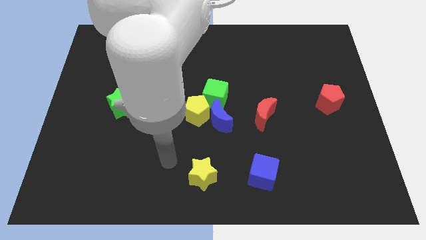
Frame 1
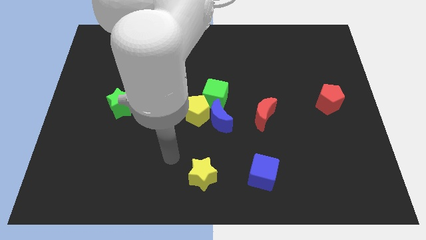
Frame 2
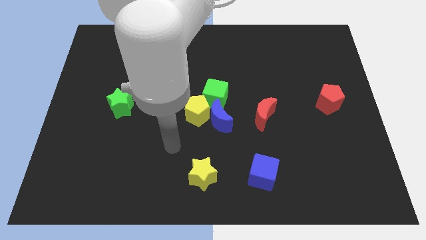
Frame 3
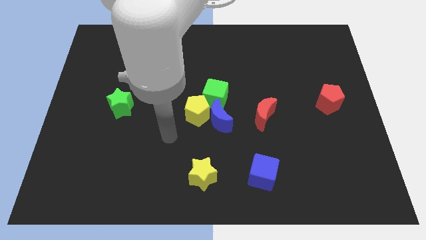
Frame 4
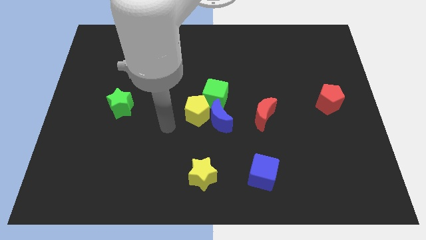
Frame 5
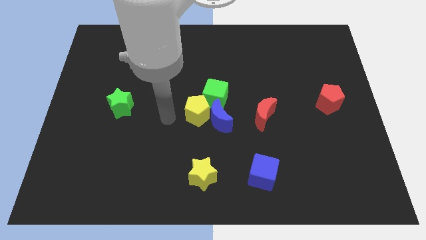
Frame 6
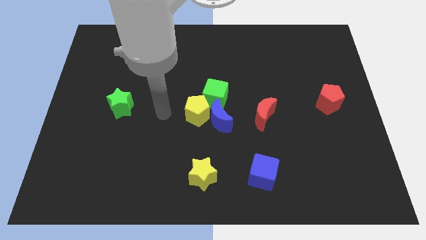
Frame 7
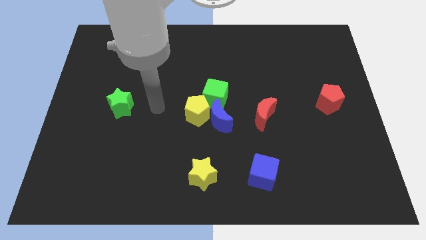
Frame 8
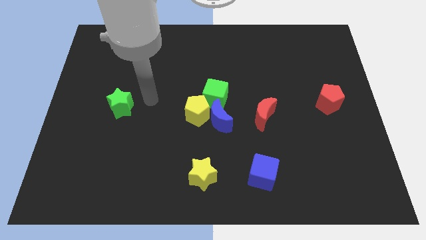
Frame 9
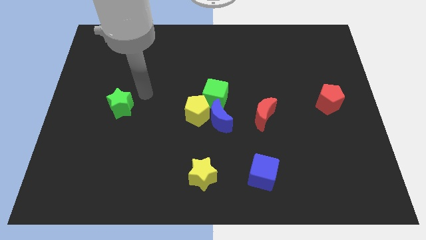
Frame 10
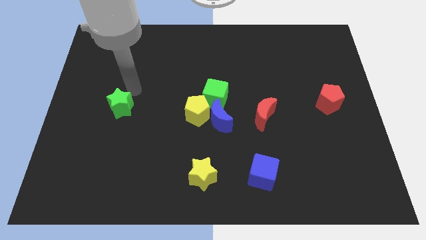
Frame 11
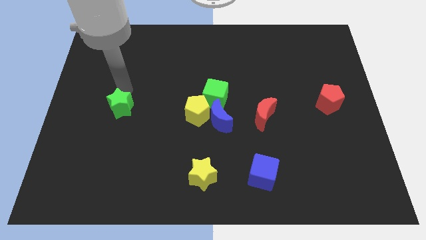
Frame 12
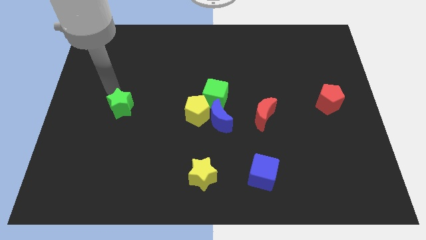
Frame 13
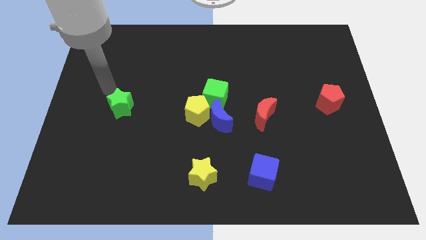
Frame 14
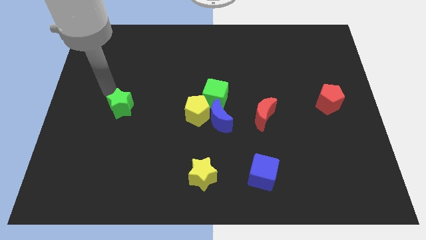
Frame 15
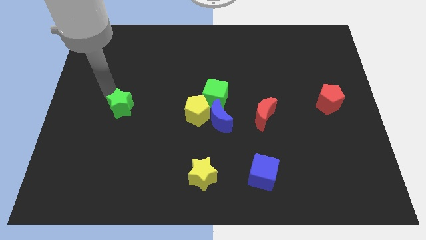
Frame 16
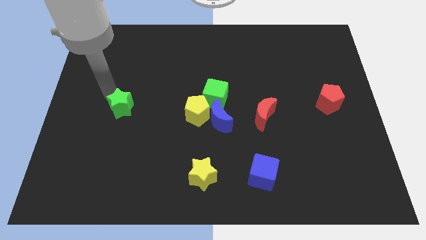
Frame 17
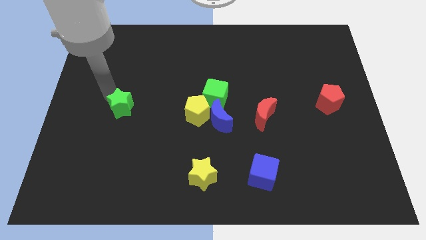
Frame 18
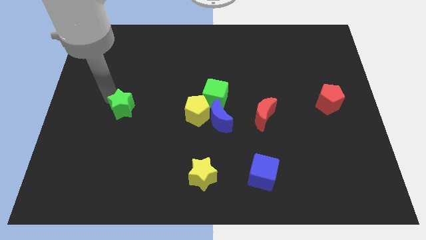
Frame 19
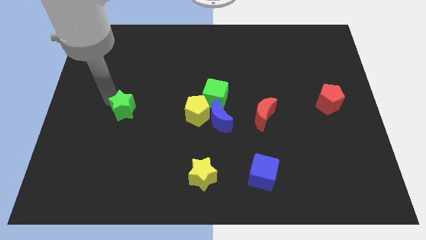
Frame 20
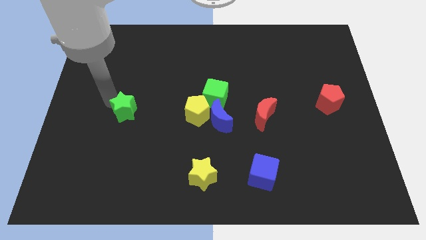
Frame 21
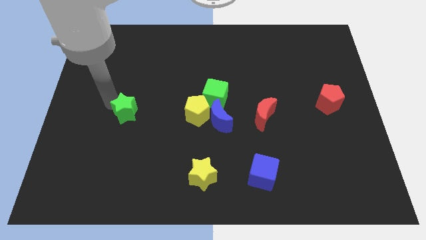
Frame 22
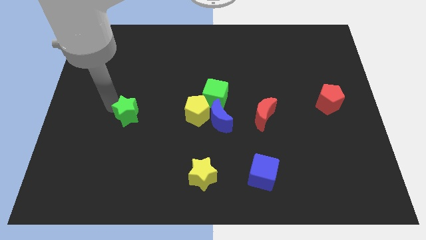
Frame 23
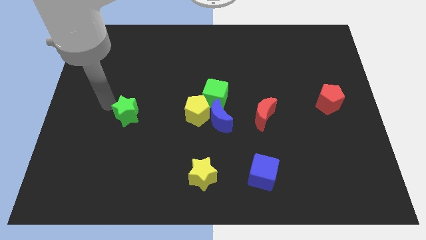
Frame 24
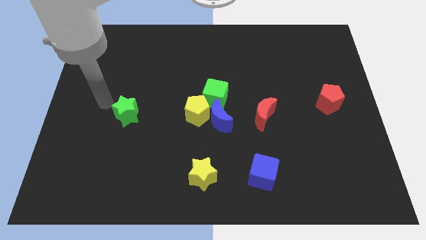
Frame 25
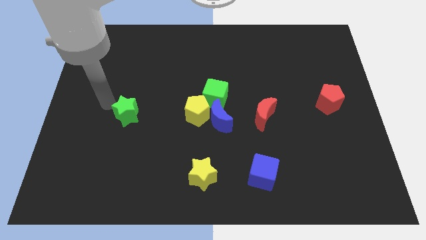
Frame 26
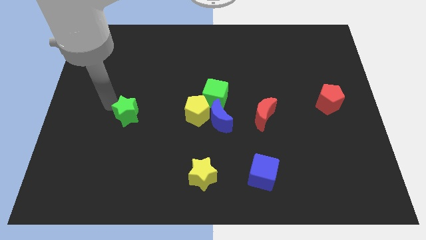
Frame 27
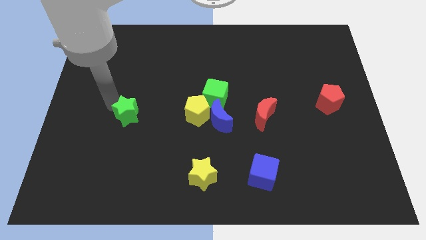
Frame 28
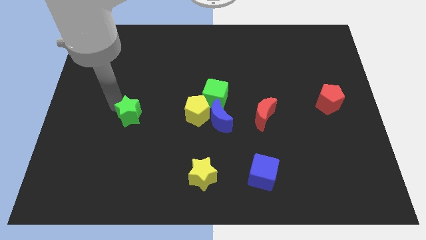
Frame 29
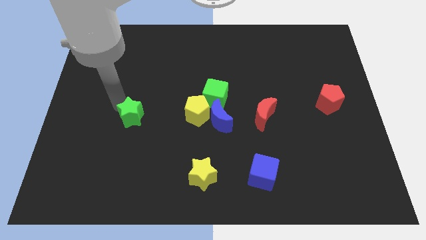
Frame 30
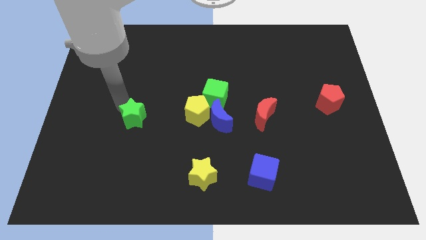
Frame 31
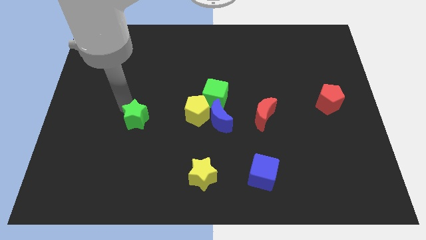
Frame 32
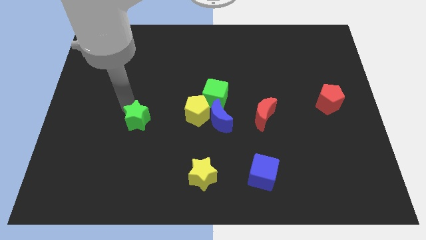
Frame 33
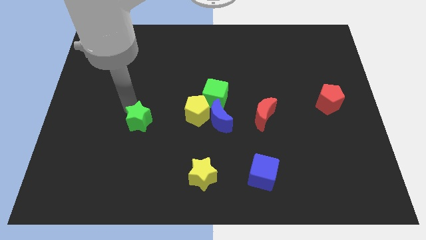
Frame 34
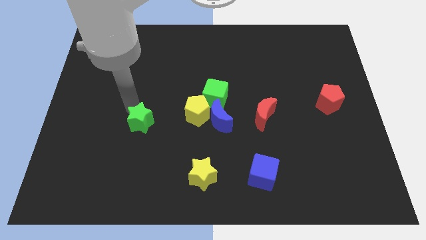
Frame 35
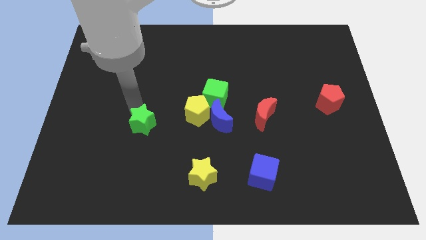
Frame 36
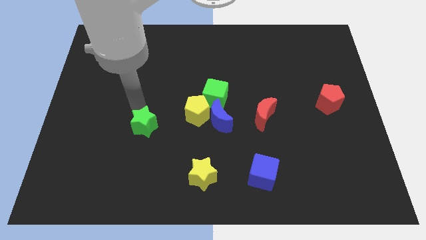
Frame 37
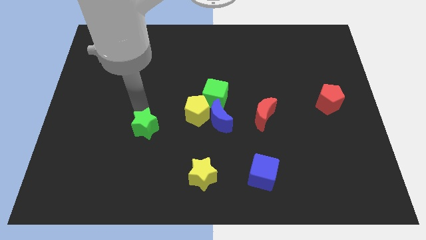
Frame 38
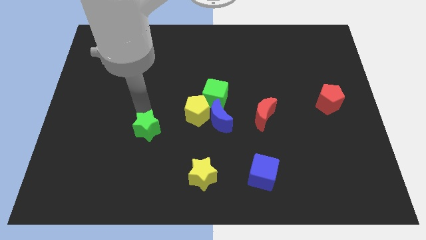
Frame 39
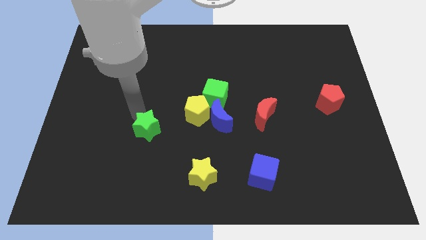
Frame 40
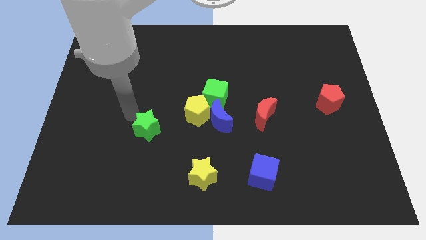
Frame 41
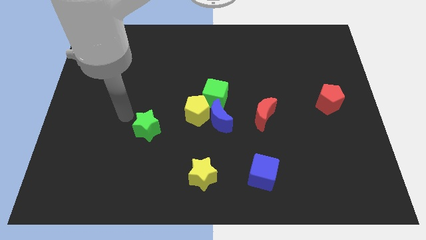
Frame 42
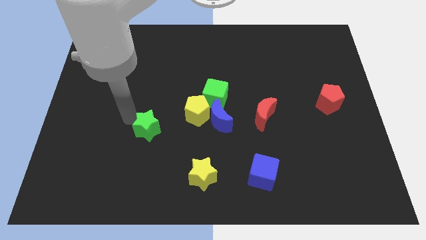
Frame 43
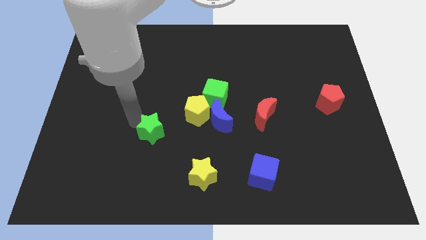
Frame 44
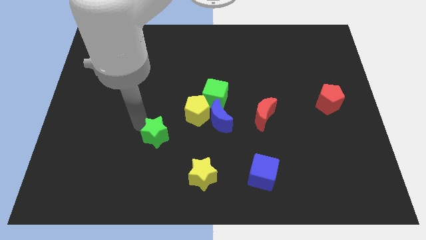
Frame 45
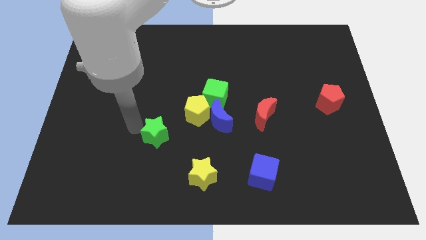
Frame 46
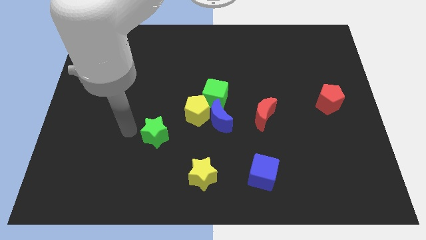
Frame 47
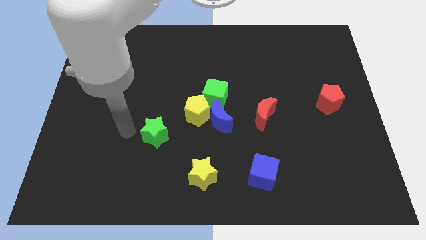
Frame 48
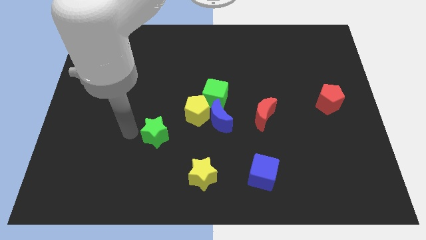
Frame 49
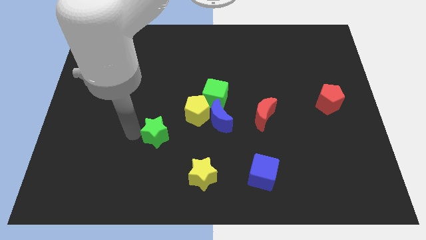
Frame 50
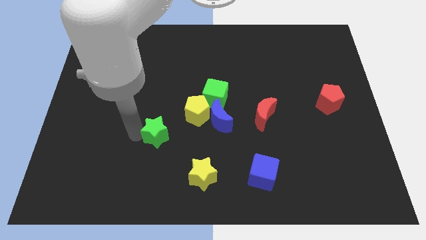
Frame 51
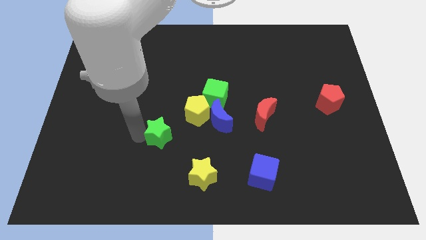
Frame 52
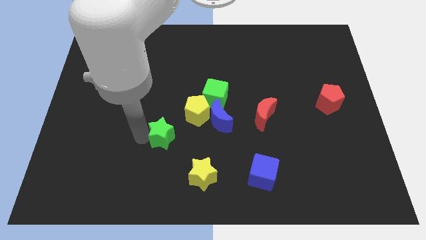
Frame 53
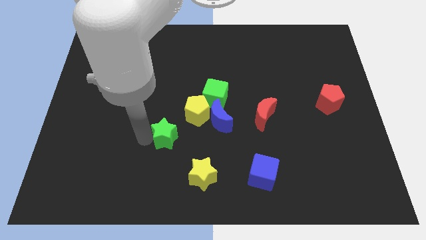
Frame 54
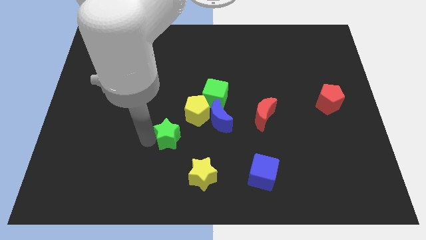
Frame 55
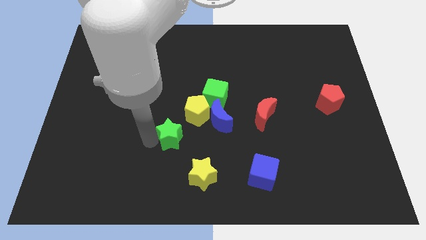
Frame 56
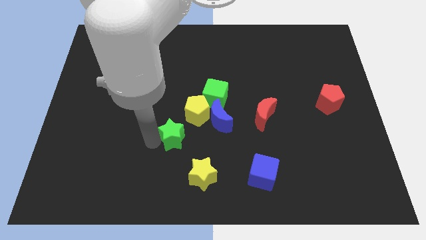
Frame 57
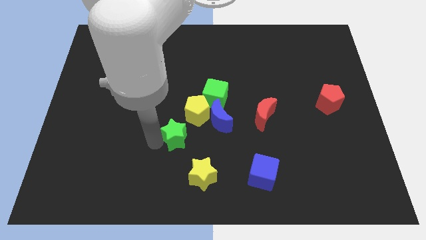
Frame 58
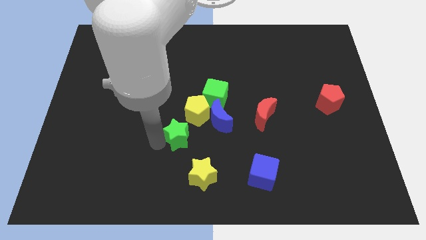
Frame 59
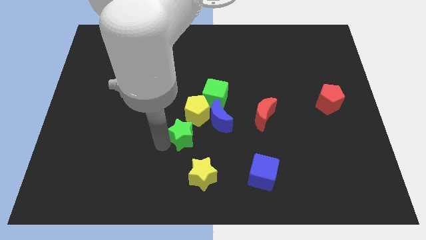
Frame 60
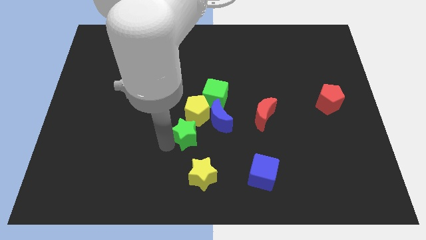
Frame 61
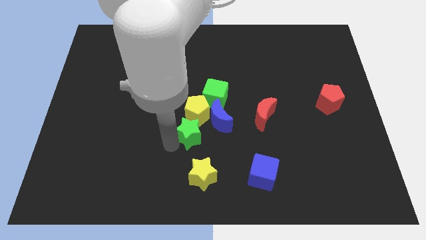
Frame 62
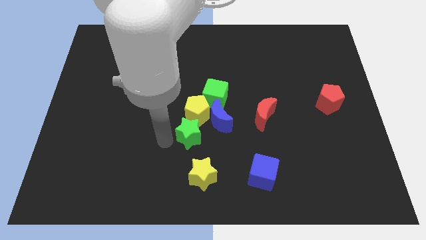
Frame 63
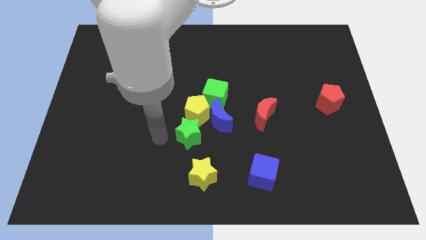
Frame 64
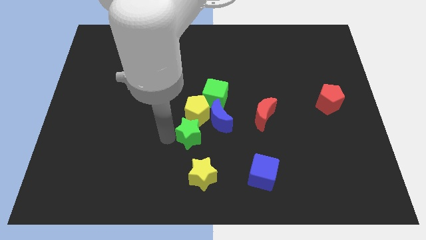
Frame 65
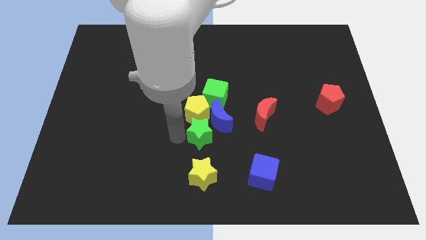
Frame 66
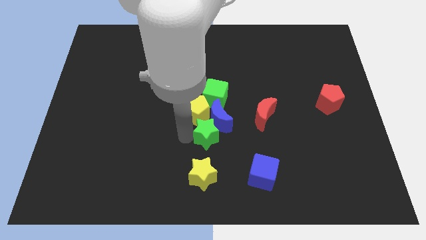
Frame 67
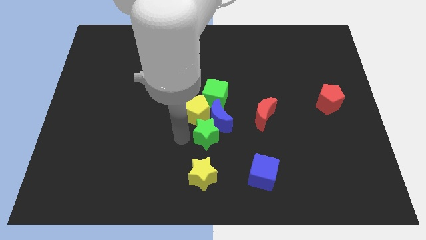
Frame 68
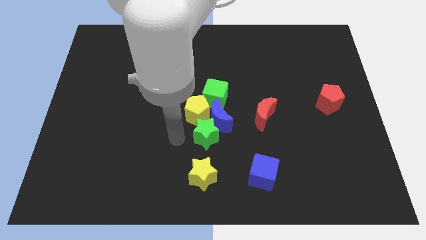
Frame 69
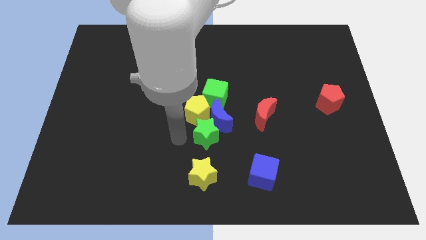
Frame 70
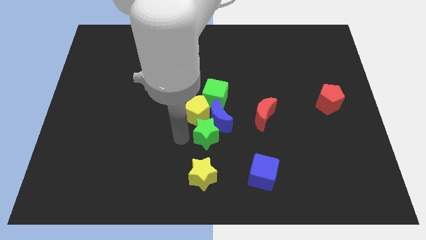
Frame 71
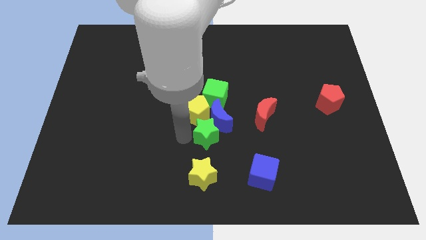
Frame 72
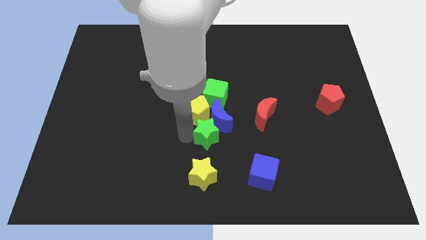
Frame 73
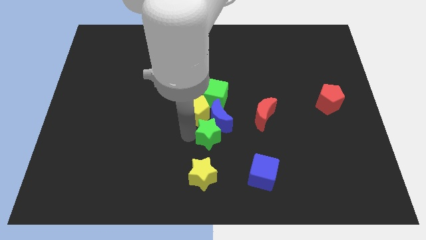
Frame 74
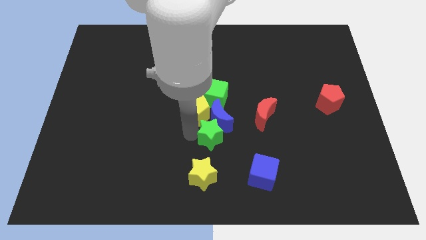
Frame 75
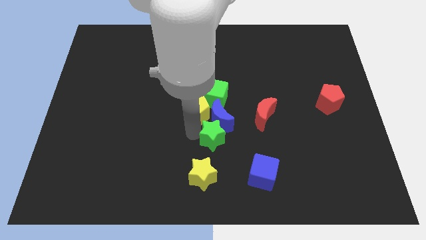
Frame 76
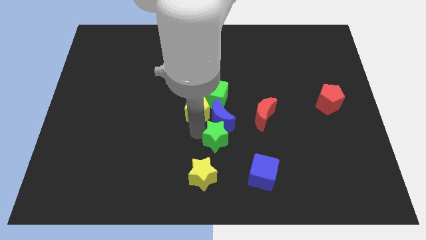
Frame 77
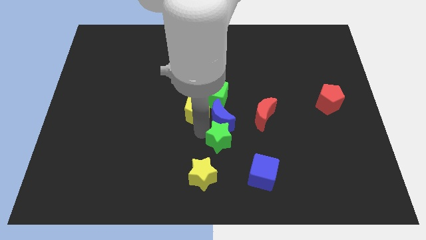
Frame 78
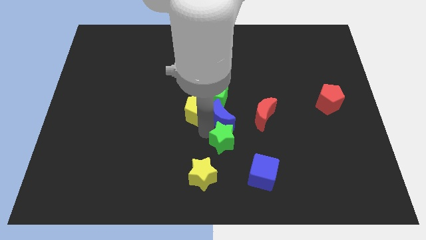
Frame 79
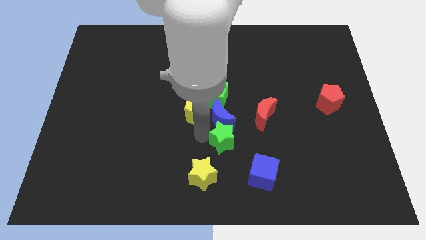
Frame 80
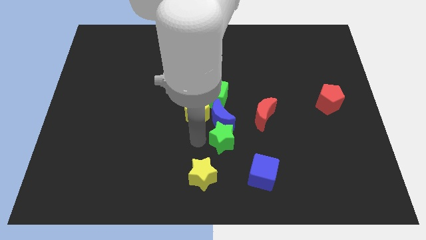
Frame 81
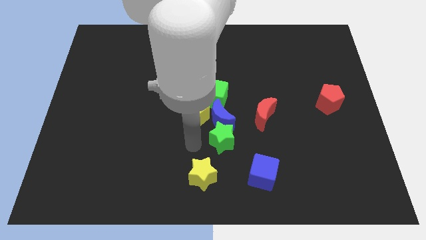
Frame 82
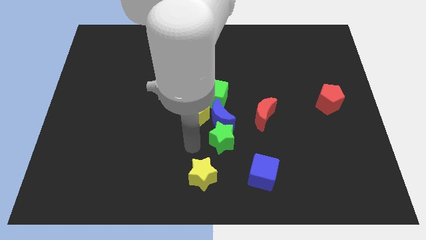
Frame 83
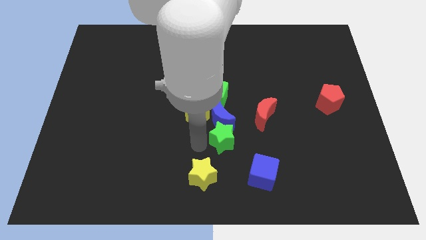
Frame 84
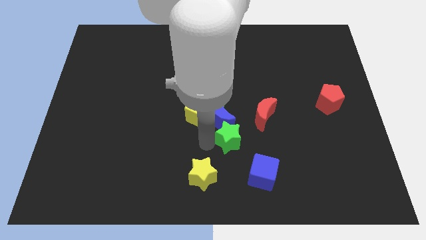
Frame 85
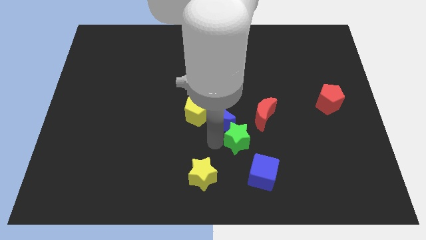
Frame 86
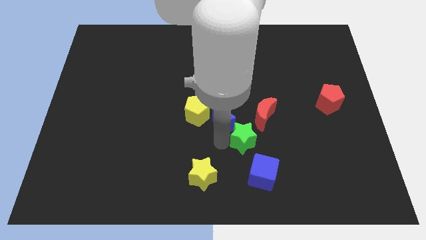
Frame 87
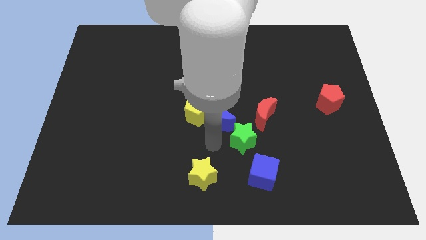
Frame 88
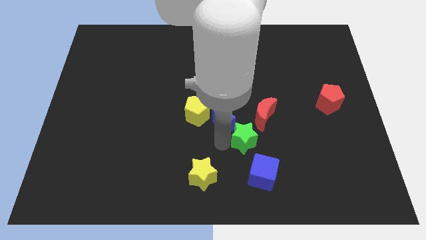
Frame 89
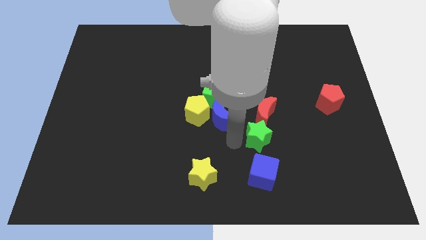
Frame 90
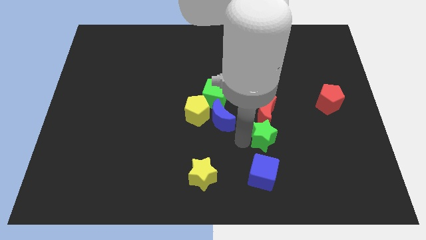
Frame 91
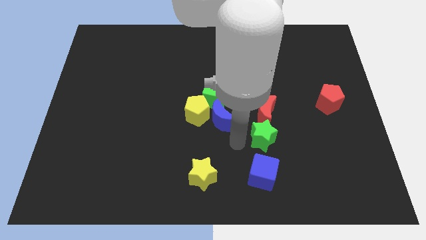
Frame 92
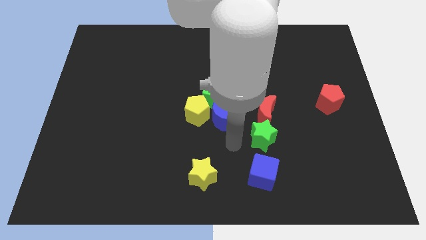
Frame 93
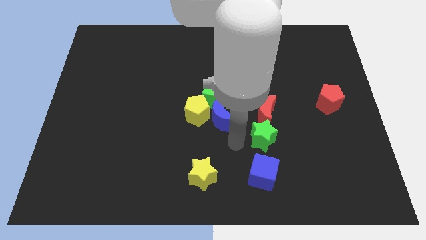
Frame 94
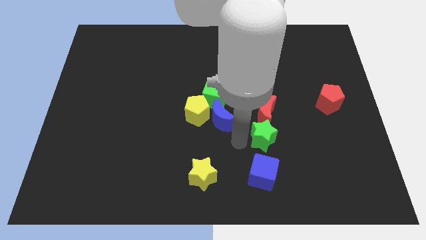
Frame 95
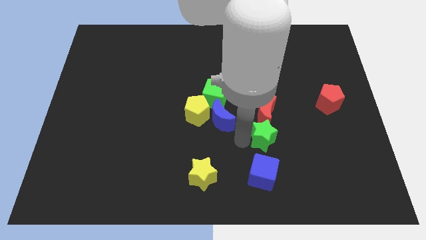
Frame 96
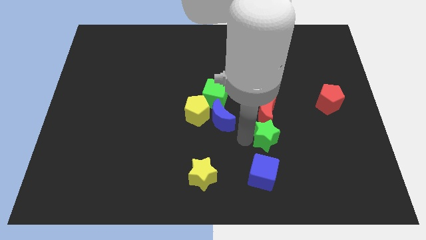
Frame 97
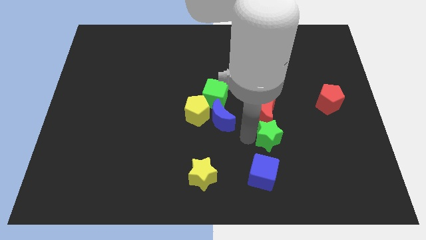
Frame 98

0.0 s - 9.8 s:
put the green star to the bottom right side of the red moon
